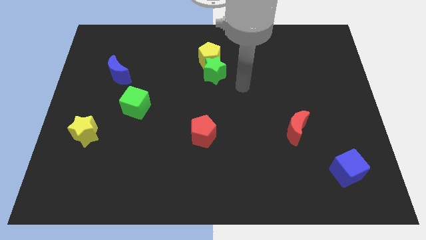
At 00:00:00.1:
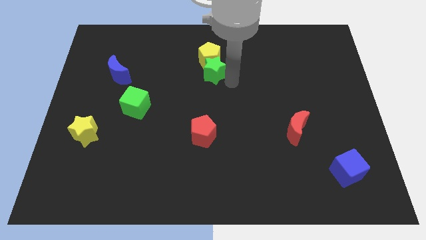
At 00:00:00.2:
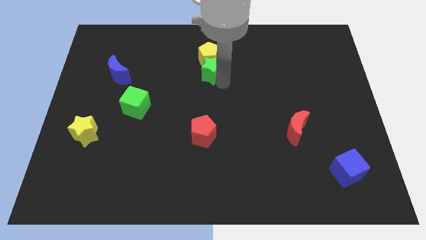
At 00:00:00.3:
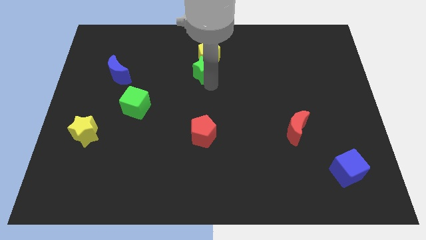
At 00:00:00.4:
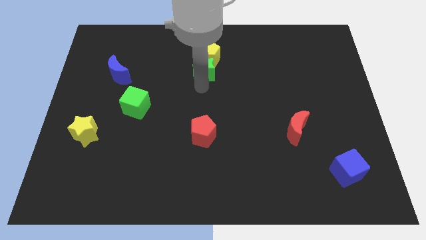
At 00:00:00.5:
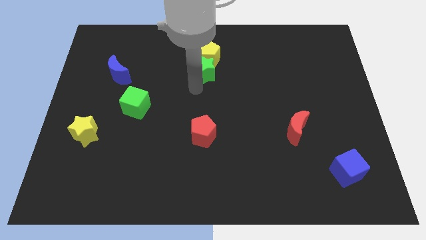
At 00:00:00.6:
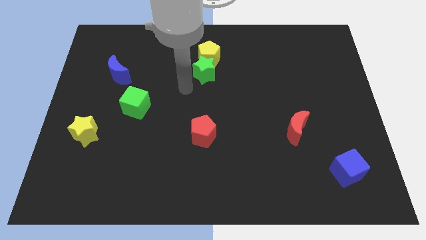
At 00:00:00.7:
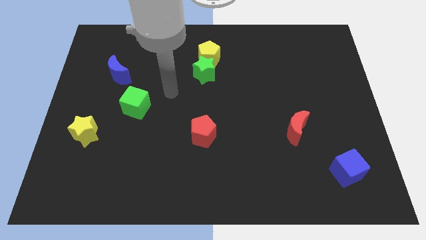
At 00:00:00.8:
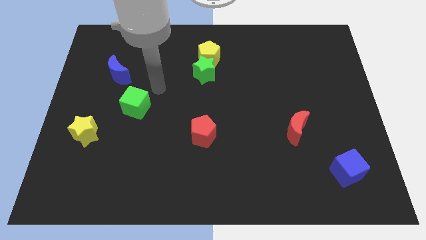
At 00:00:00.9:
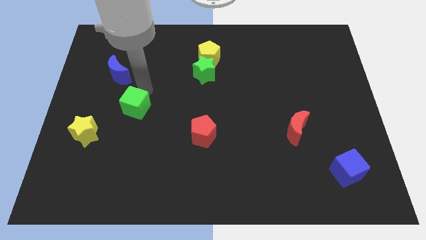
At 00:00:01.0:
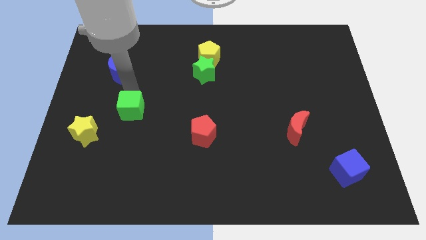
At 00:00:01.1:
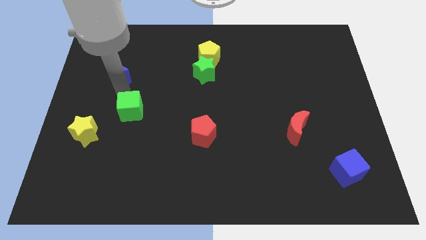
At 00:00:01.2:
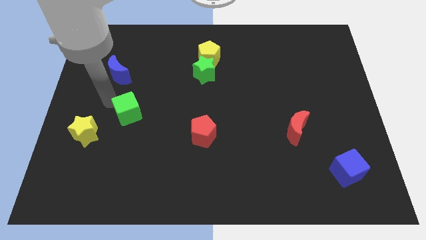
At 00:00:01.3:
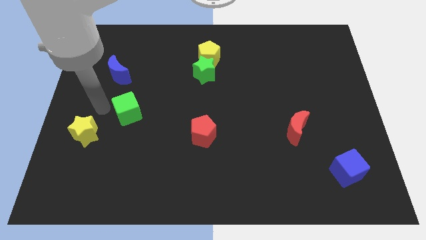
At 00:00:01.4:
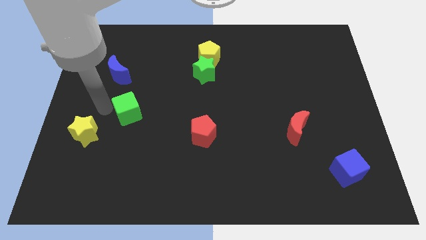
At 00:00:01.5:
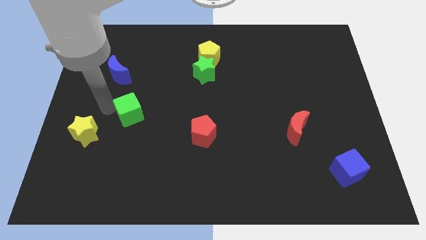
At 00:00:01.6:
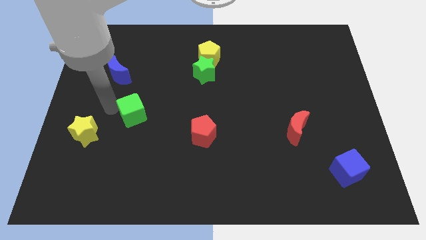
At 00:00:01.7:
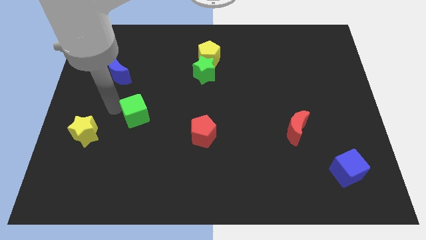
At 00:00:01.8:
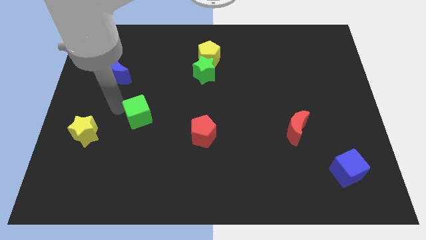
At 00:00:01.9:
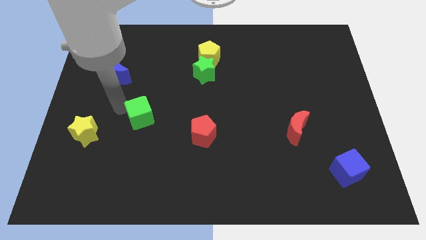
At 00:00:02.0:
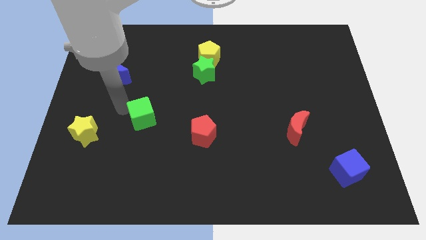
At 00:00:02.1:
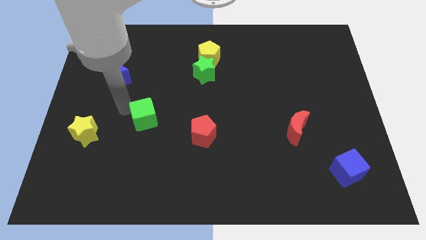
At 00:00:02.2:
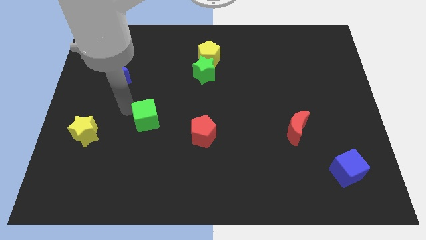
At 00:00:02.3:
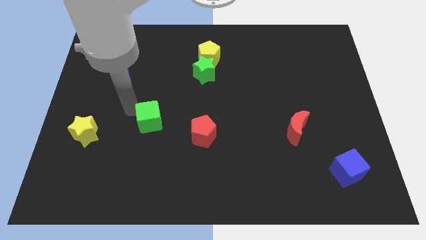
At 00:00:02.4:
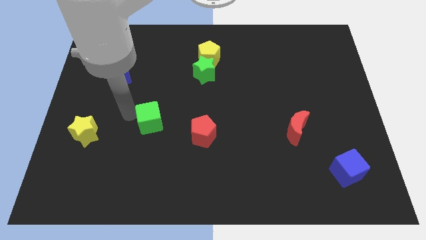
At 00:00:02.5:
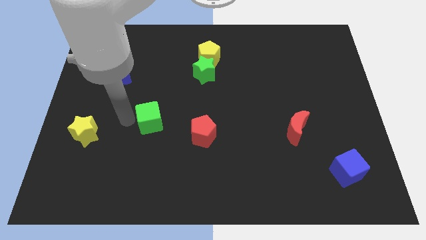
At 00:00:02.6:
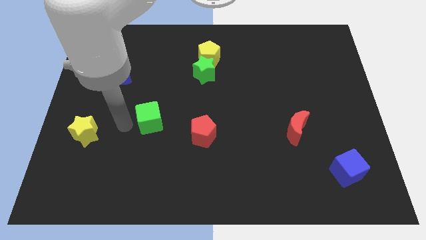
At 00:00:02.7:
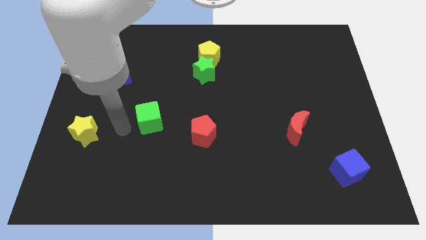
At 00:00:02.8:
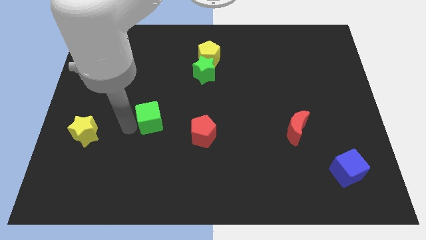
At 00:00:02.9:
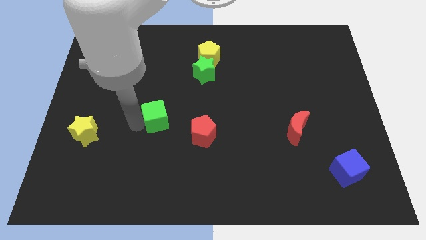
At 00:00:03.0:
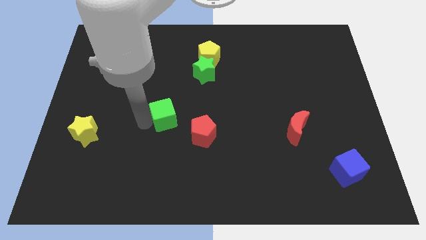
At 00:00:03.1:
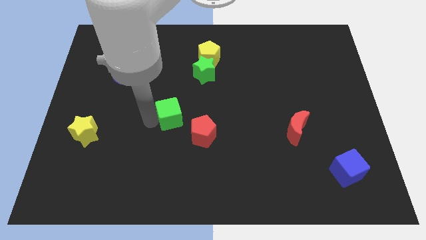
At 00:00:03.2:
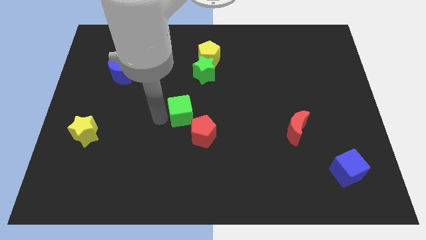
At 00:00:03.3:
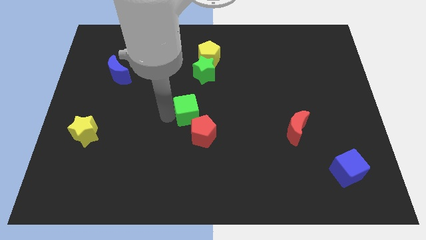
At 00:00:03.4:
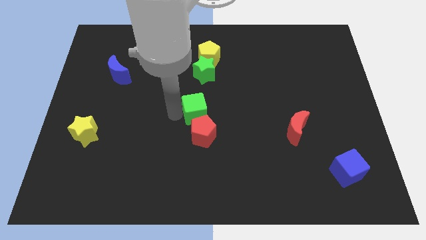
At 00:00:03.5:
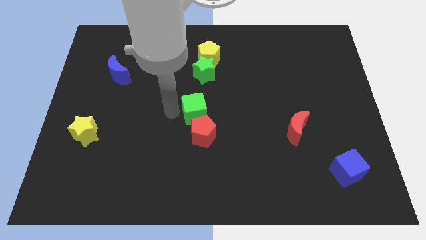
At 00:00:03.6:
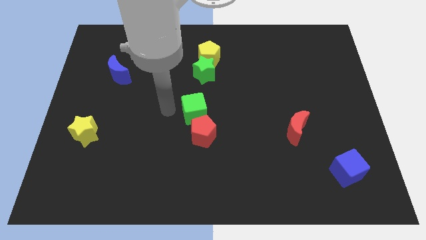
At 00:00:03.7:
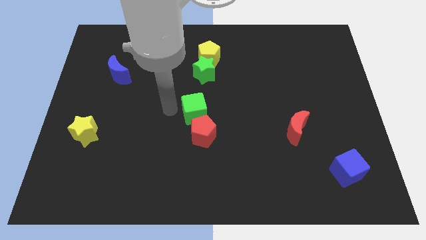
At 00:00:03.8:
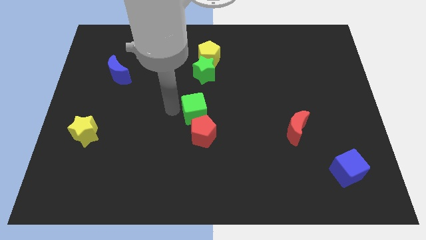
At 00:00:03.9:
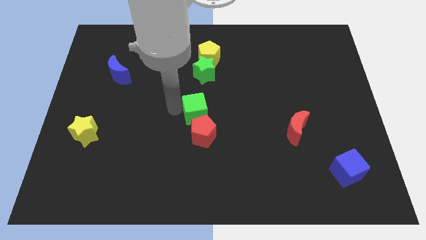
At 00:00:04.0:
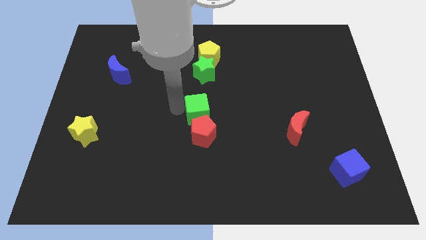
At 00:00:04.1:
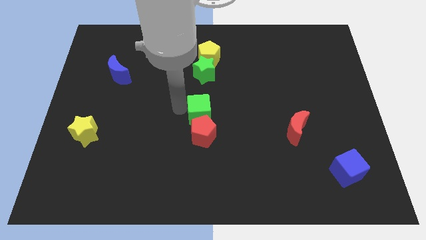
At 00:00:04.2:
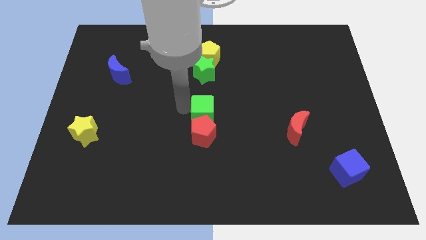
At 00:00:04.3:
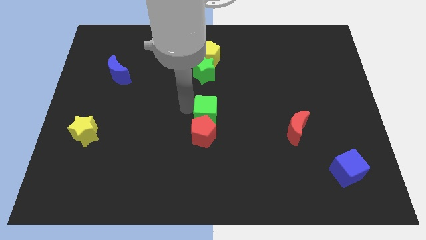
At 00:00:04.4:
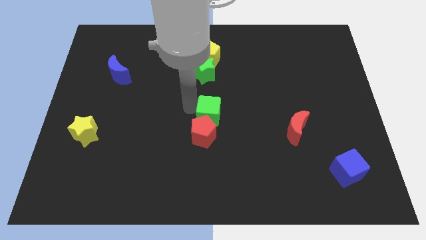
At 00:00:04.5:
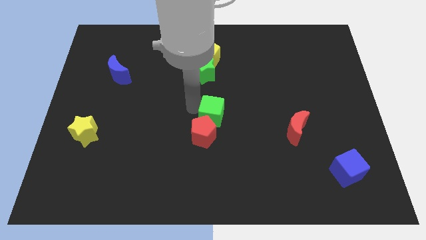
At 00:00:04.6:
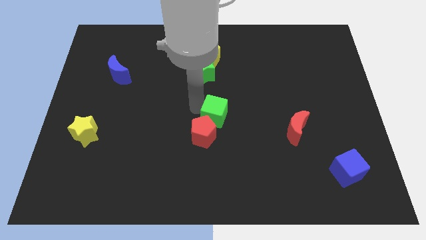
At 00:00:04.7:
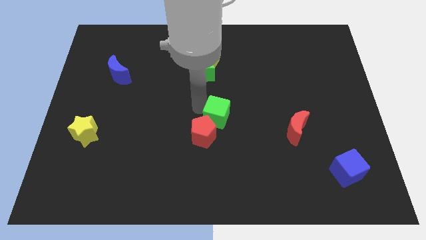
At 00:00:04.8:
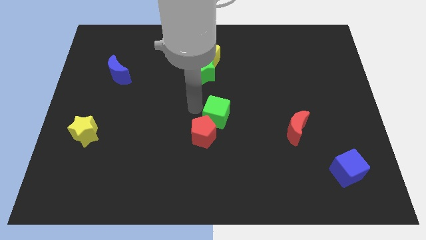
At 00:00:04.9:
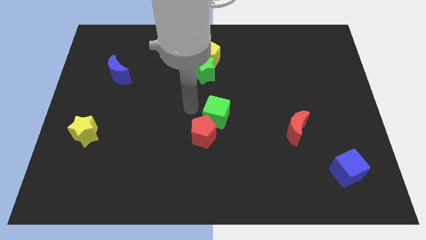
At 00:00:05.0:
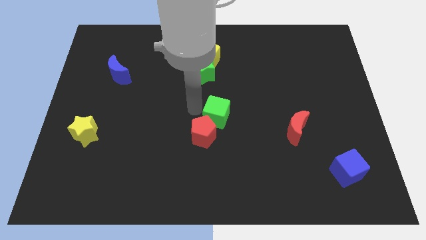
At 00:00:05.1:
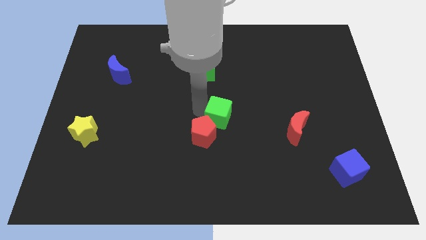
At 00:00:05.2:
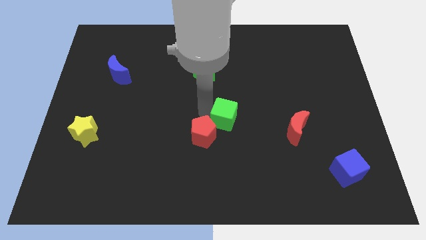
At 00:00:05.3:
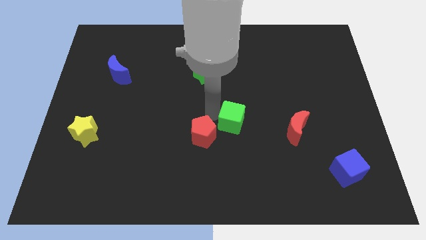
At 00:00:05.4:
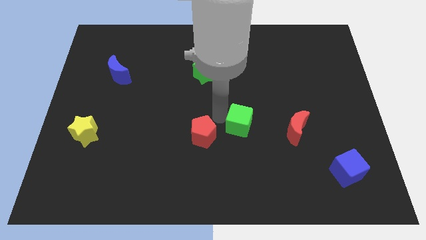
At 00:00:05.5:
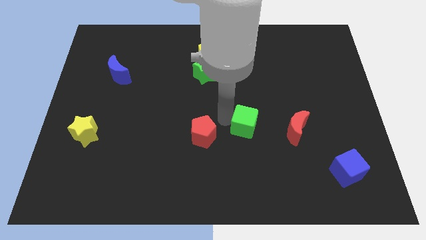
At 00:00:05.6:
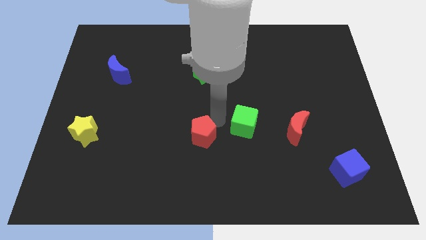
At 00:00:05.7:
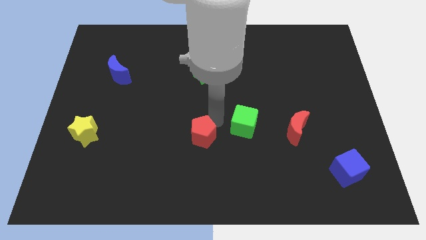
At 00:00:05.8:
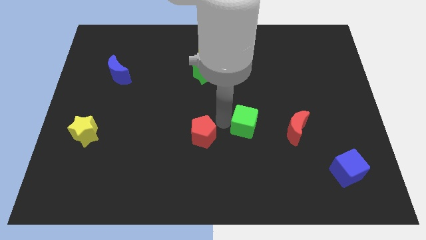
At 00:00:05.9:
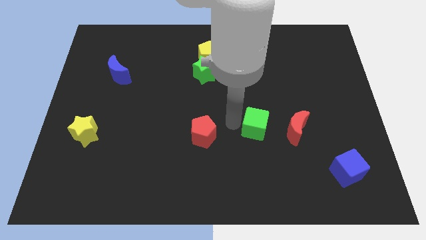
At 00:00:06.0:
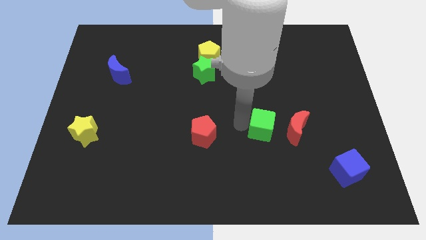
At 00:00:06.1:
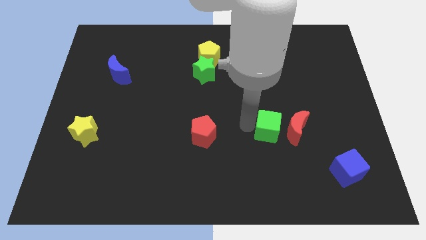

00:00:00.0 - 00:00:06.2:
push the green cube close to the red moon
